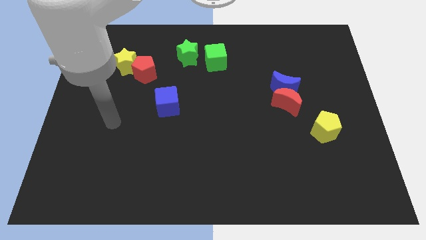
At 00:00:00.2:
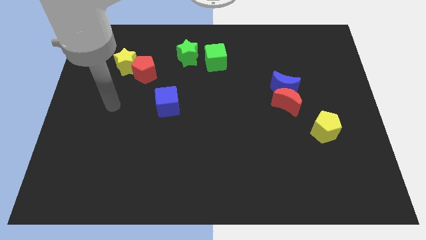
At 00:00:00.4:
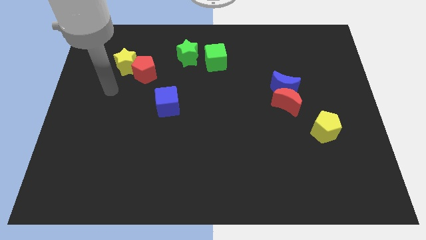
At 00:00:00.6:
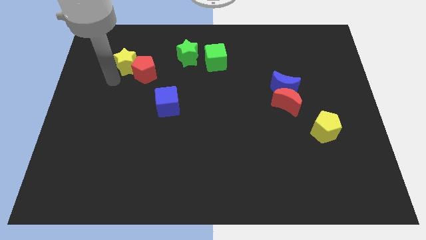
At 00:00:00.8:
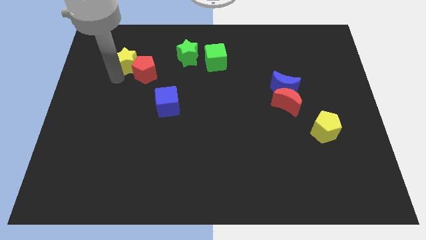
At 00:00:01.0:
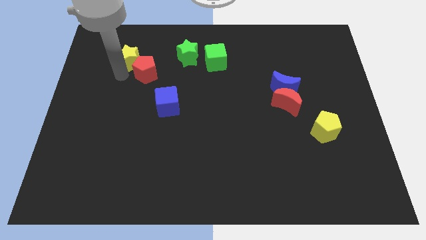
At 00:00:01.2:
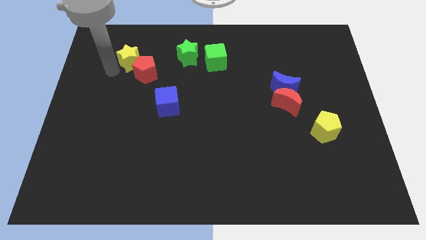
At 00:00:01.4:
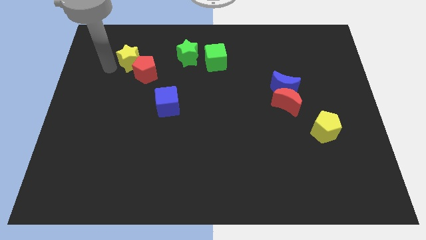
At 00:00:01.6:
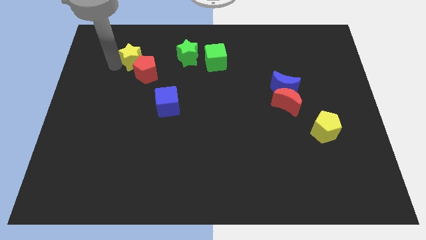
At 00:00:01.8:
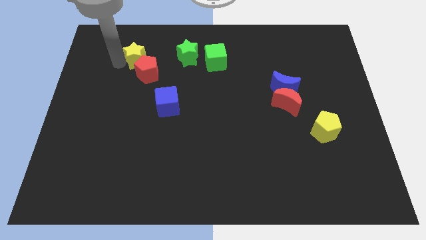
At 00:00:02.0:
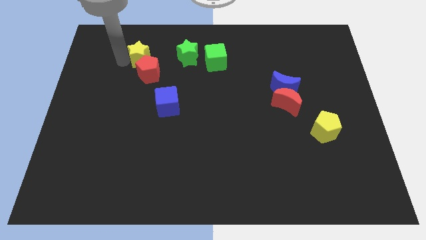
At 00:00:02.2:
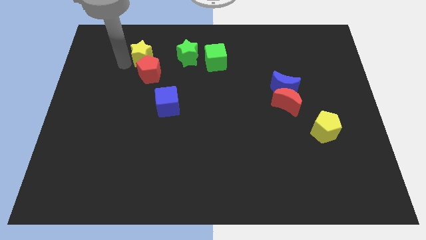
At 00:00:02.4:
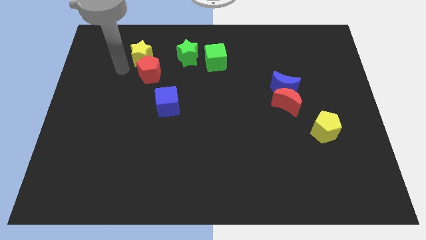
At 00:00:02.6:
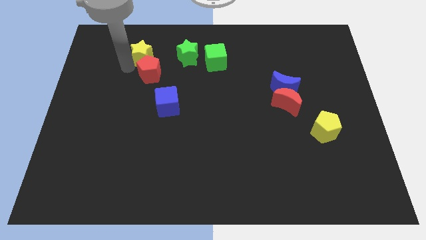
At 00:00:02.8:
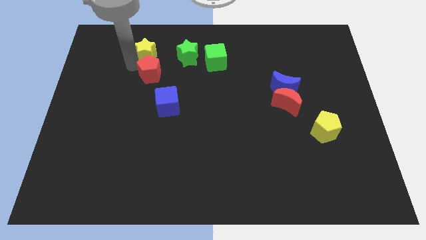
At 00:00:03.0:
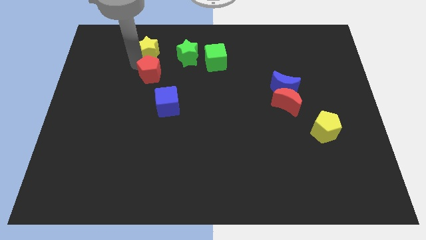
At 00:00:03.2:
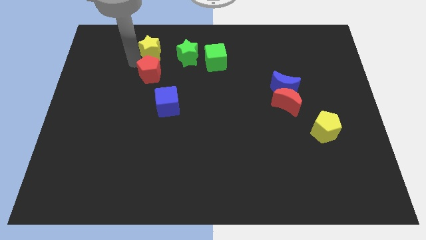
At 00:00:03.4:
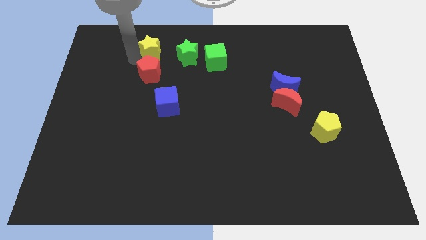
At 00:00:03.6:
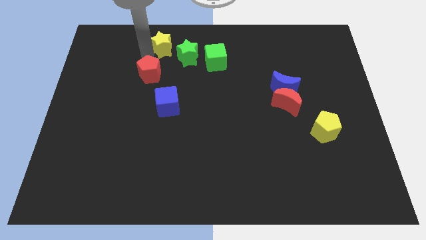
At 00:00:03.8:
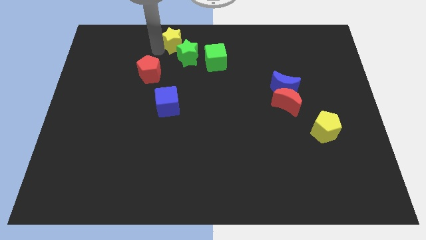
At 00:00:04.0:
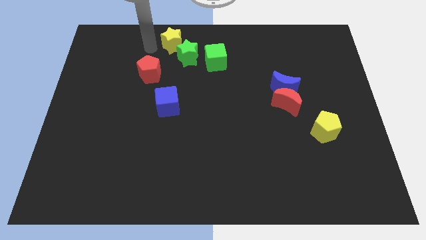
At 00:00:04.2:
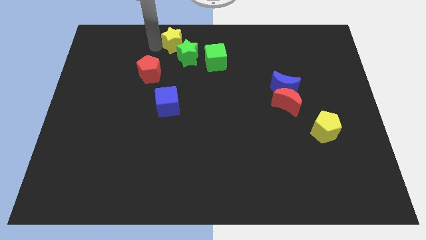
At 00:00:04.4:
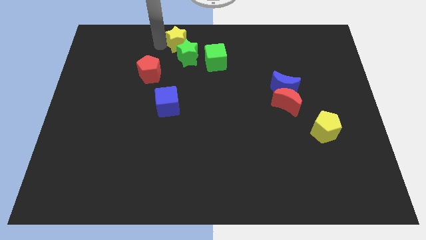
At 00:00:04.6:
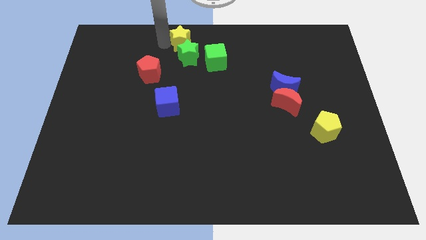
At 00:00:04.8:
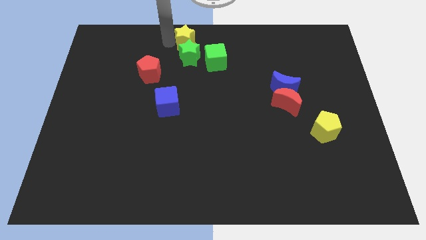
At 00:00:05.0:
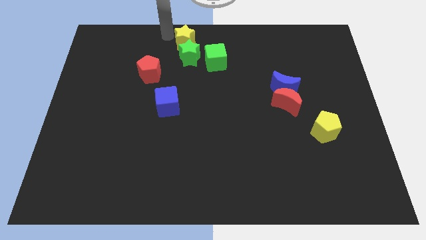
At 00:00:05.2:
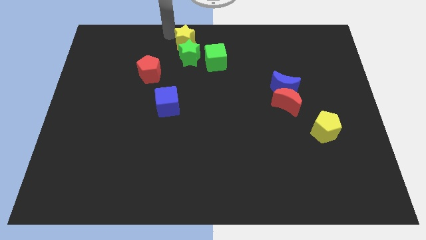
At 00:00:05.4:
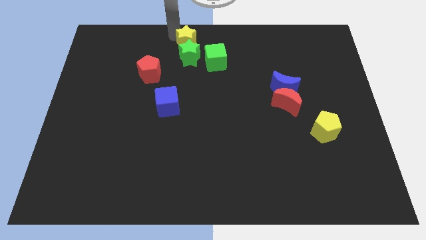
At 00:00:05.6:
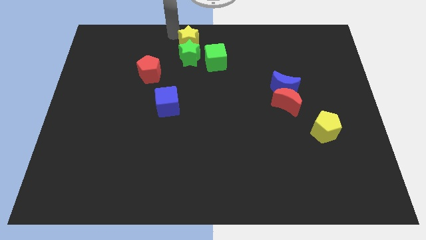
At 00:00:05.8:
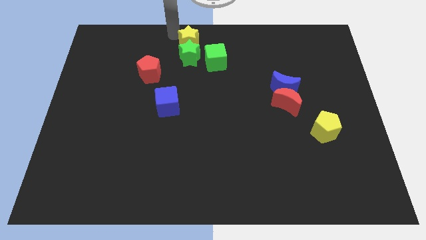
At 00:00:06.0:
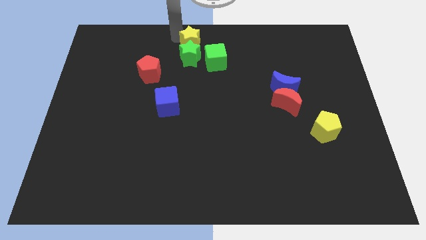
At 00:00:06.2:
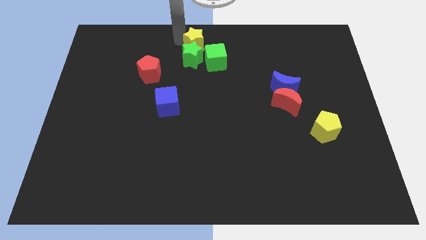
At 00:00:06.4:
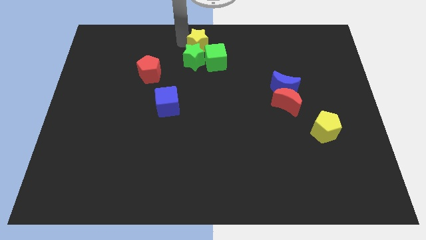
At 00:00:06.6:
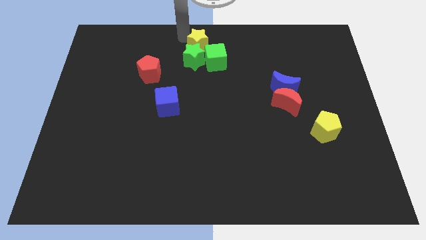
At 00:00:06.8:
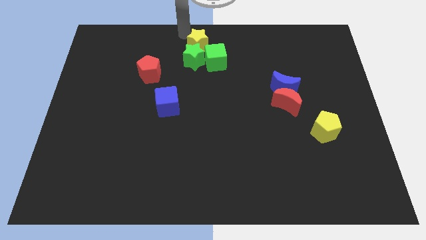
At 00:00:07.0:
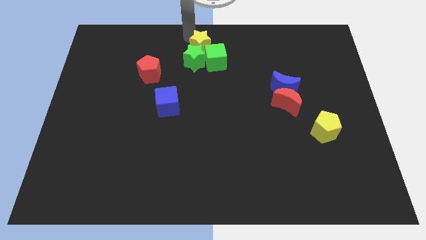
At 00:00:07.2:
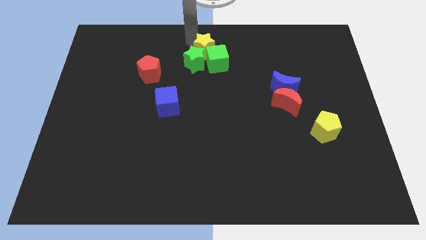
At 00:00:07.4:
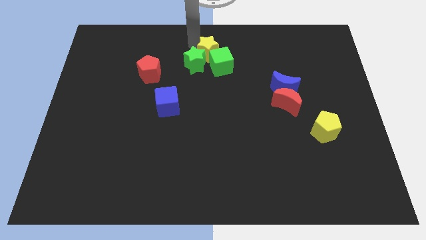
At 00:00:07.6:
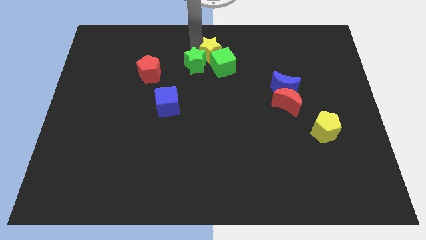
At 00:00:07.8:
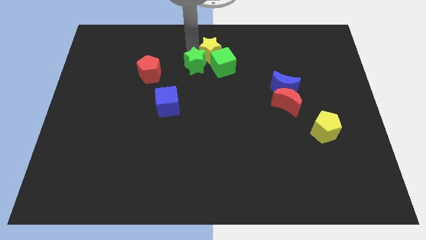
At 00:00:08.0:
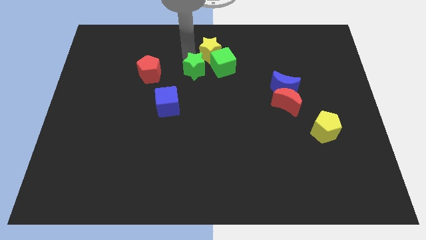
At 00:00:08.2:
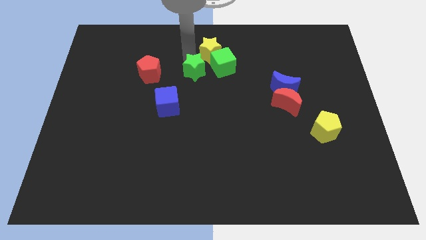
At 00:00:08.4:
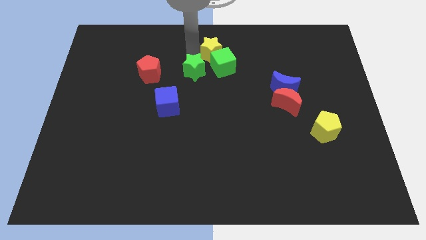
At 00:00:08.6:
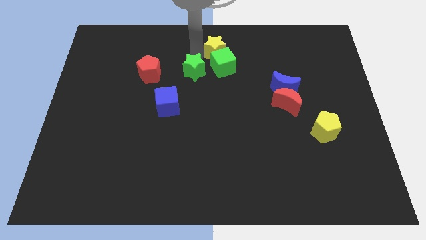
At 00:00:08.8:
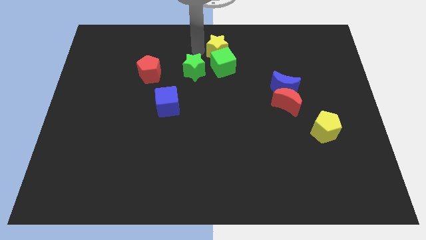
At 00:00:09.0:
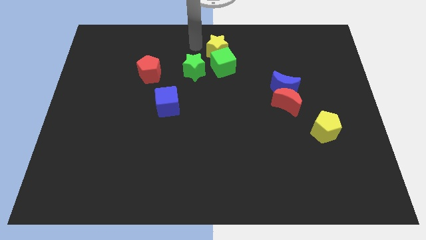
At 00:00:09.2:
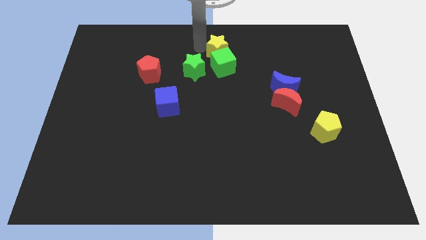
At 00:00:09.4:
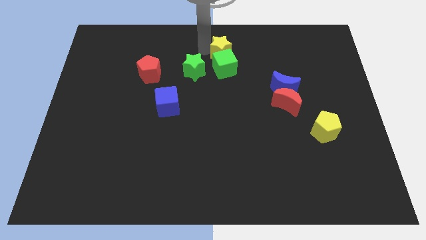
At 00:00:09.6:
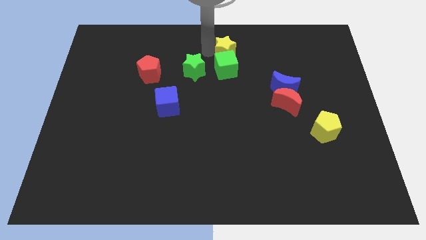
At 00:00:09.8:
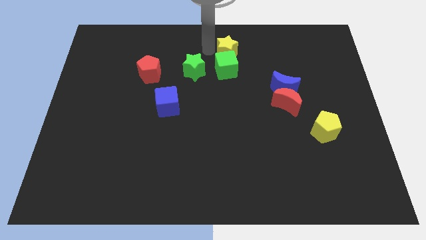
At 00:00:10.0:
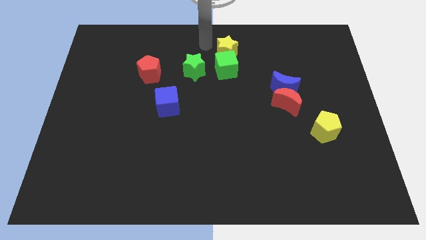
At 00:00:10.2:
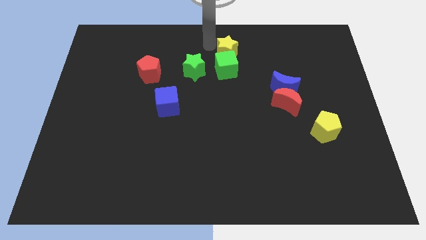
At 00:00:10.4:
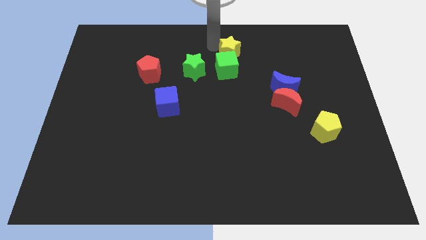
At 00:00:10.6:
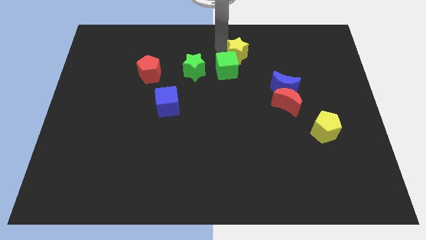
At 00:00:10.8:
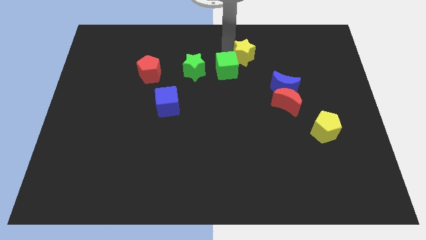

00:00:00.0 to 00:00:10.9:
move the yellow star to the right side of the green cube
